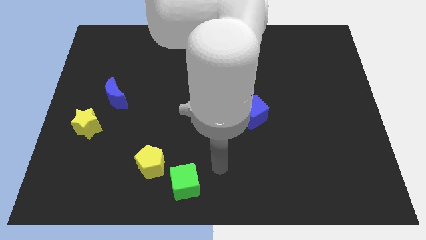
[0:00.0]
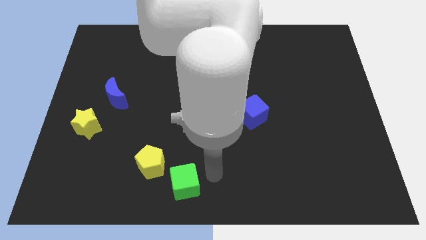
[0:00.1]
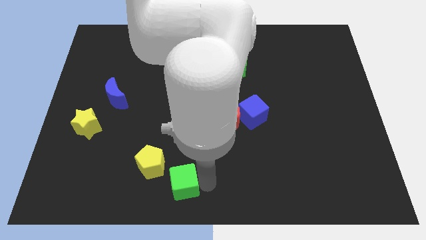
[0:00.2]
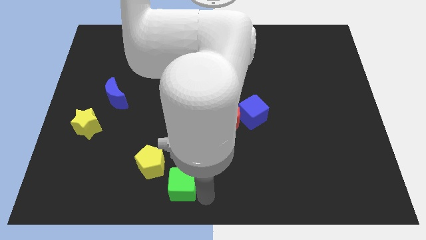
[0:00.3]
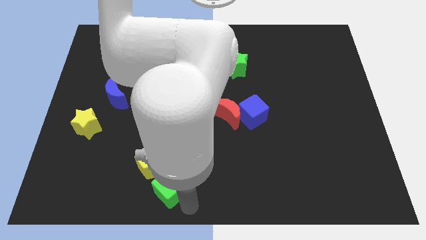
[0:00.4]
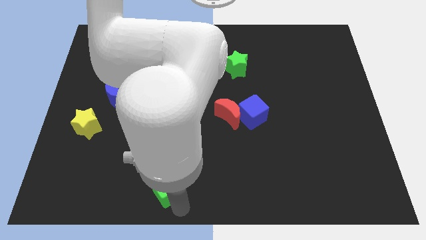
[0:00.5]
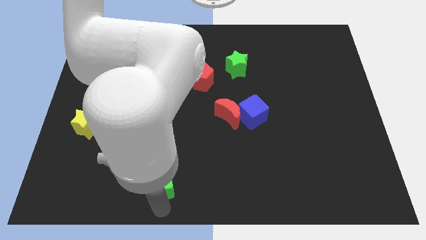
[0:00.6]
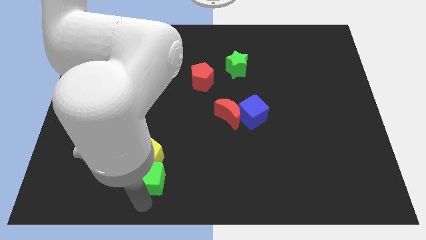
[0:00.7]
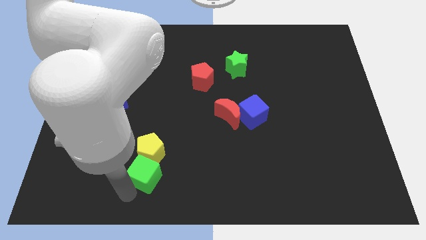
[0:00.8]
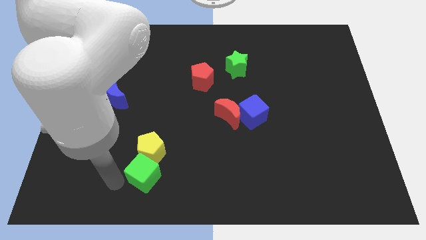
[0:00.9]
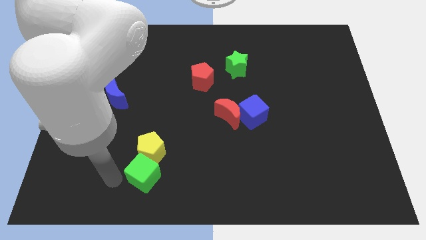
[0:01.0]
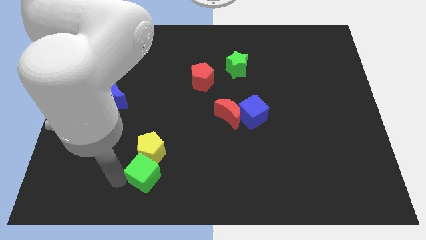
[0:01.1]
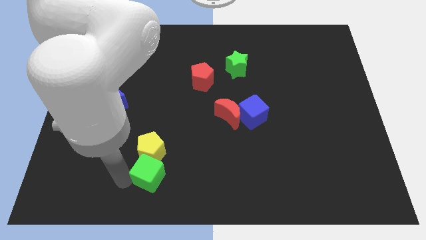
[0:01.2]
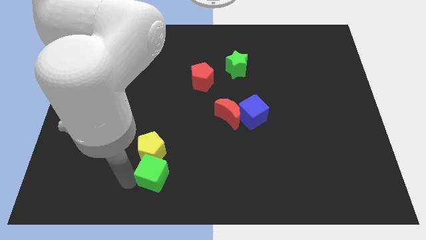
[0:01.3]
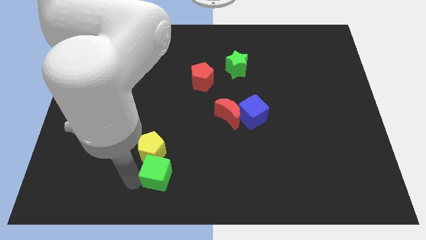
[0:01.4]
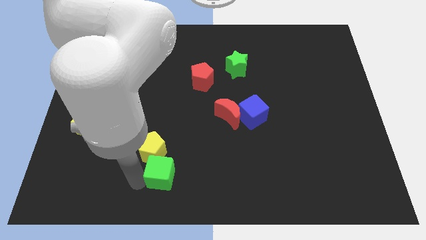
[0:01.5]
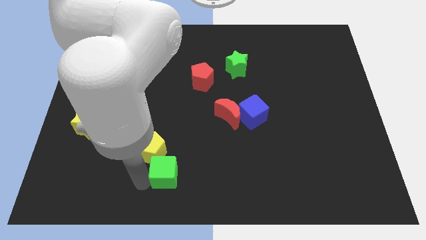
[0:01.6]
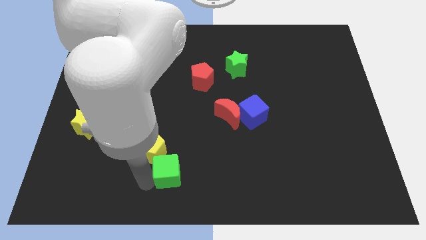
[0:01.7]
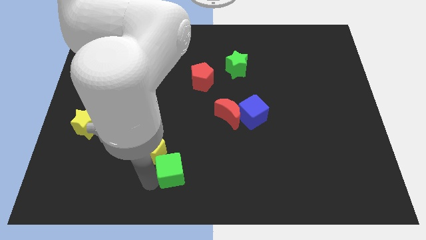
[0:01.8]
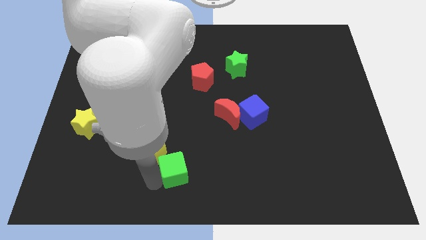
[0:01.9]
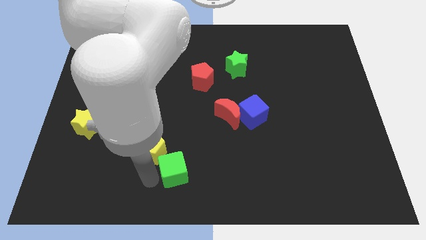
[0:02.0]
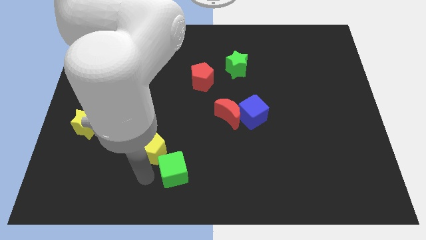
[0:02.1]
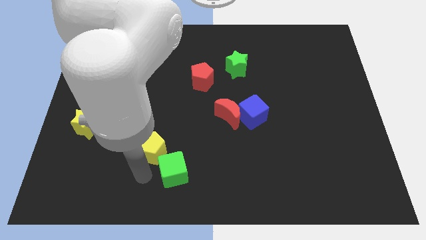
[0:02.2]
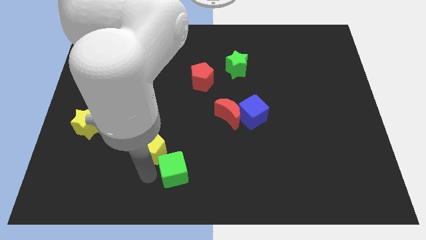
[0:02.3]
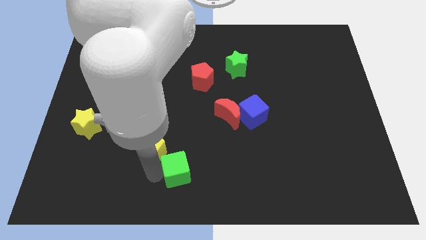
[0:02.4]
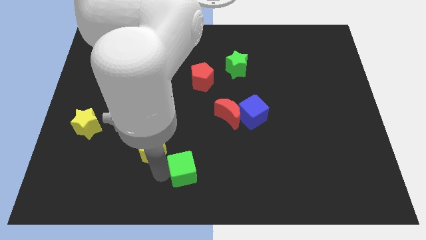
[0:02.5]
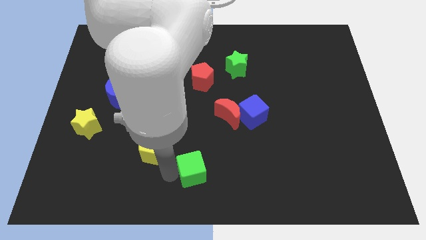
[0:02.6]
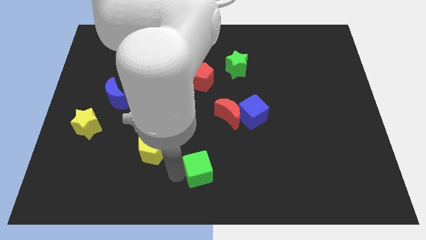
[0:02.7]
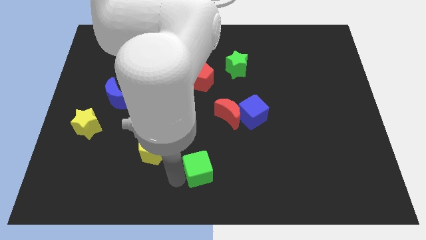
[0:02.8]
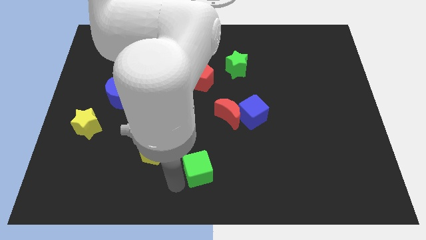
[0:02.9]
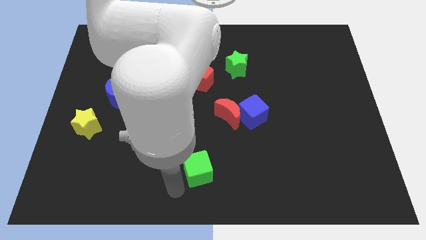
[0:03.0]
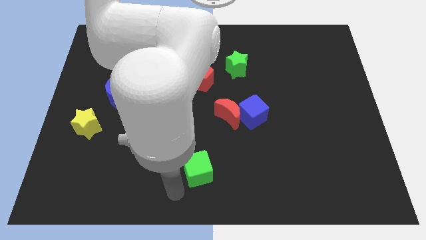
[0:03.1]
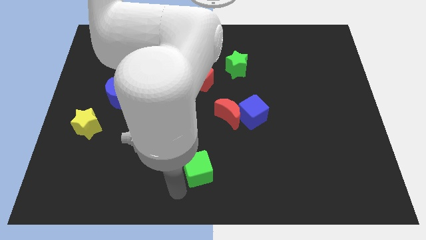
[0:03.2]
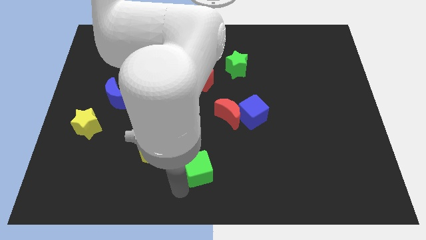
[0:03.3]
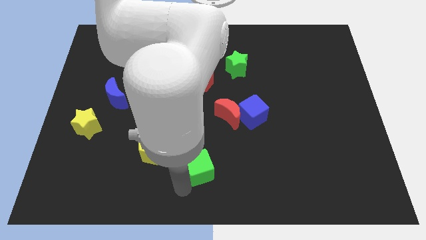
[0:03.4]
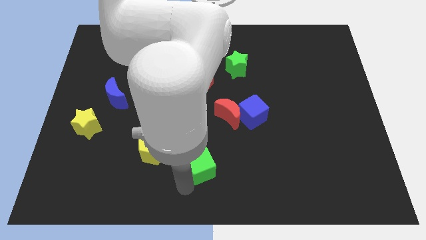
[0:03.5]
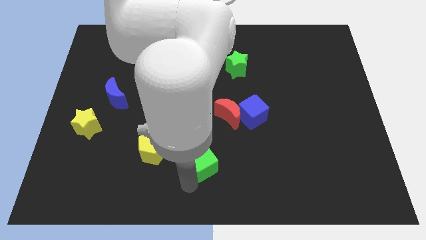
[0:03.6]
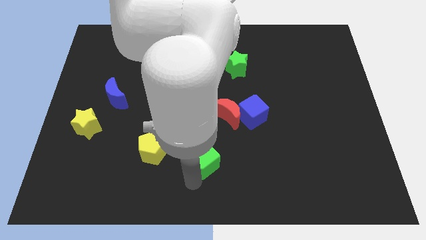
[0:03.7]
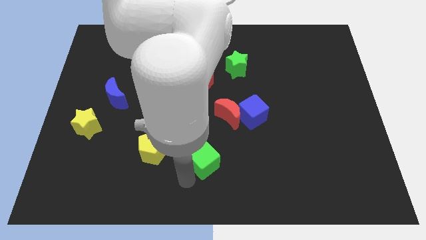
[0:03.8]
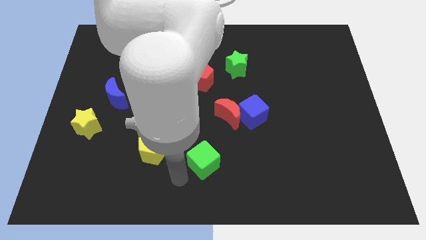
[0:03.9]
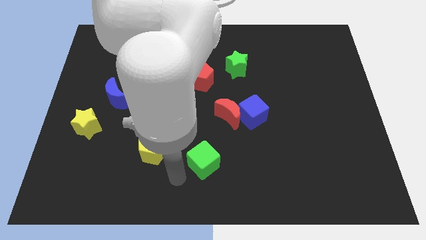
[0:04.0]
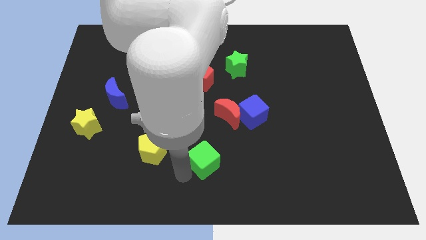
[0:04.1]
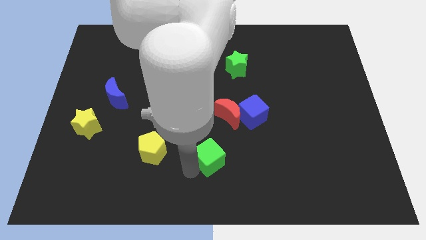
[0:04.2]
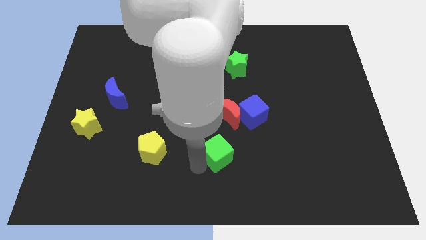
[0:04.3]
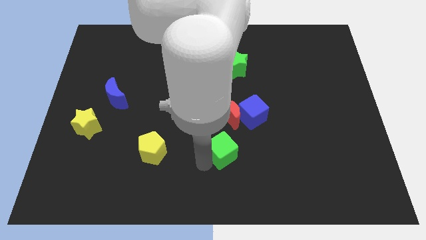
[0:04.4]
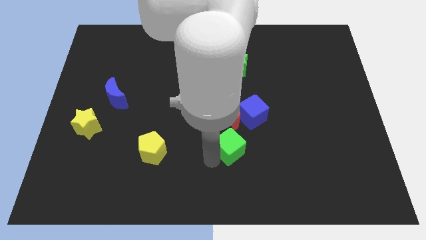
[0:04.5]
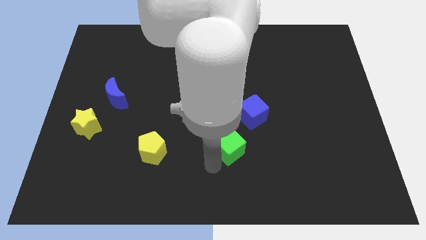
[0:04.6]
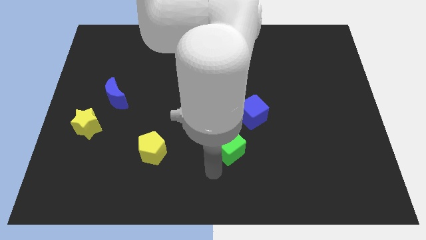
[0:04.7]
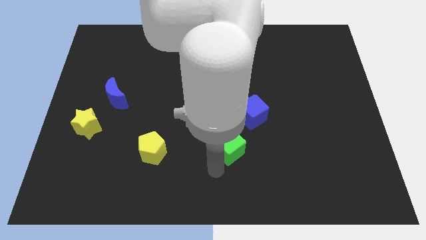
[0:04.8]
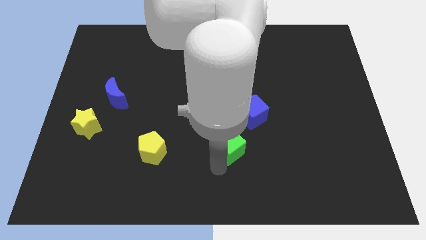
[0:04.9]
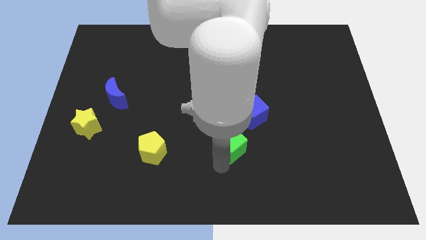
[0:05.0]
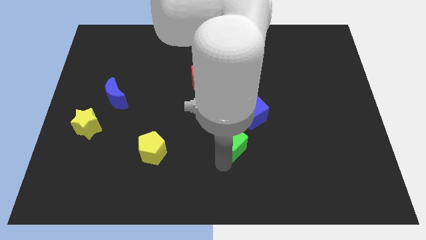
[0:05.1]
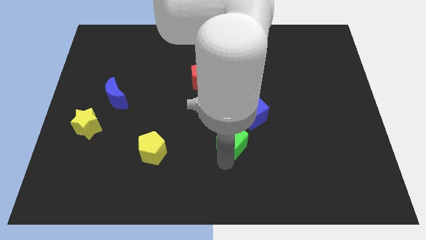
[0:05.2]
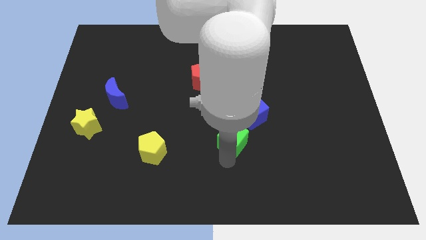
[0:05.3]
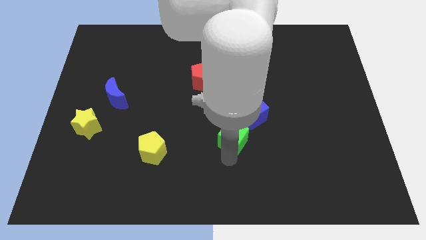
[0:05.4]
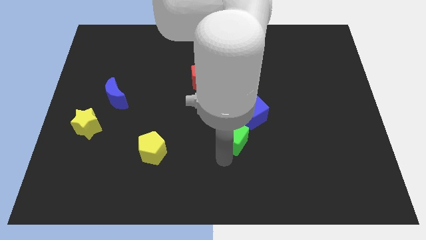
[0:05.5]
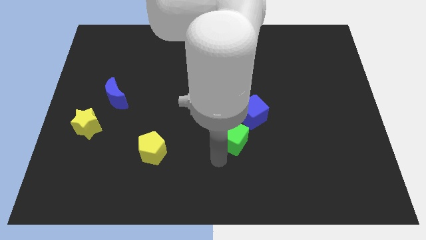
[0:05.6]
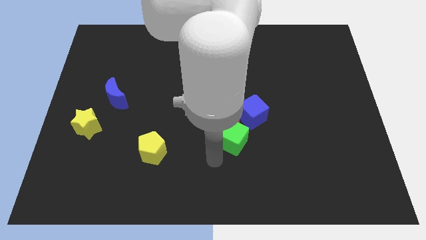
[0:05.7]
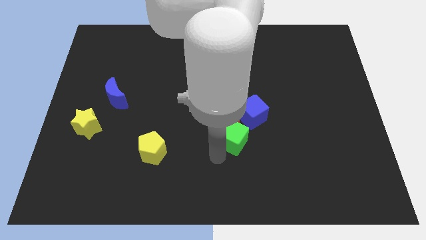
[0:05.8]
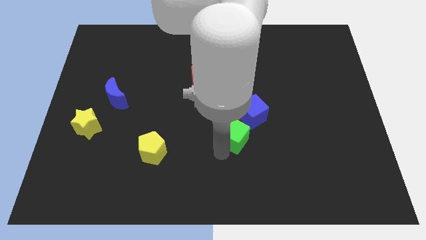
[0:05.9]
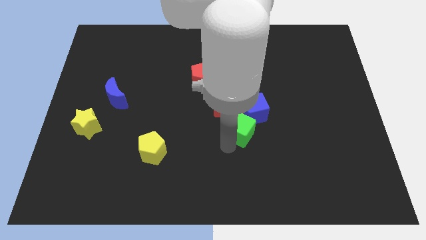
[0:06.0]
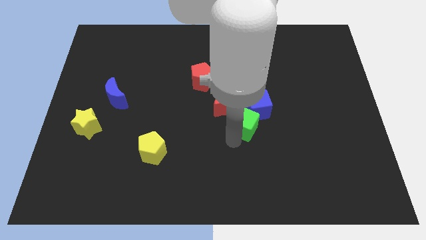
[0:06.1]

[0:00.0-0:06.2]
slide the green cube close to the blue cube
